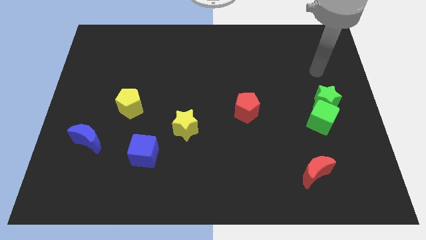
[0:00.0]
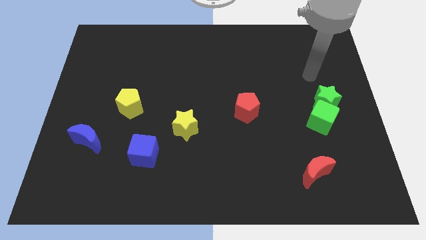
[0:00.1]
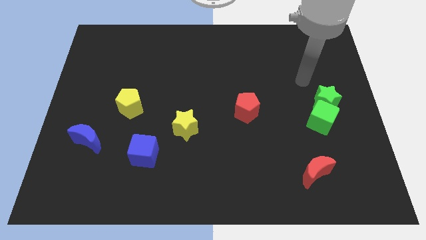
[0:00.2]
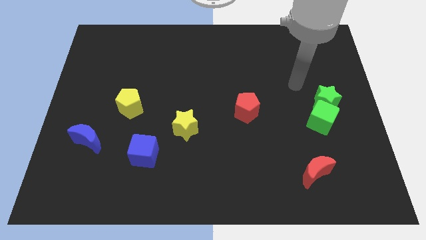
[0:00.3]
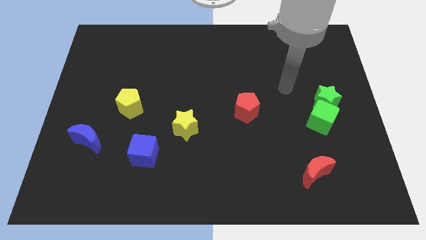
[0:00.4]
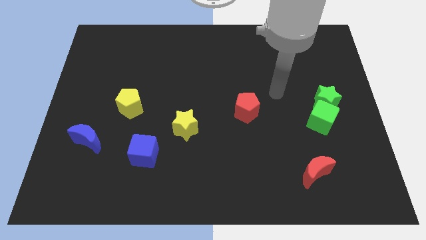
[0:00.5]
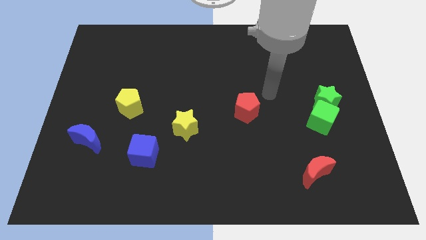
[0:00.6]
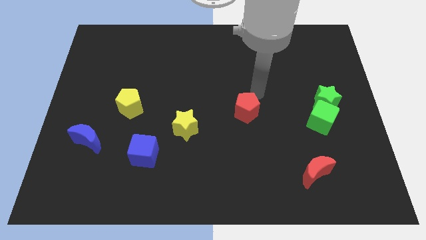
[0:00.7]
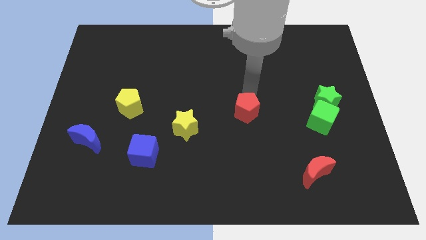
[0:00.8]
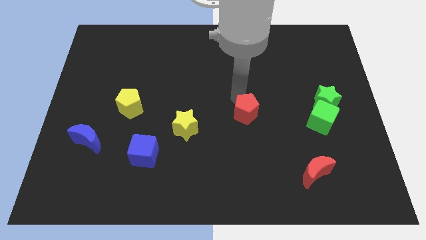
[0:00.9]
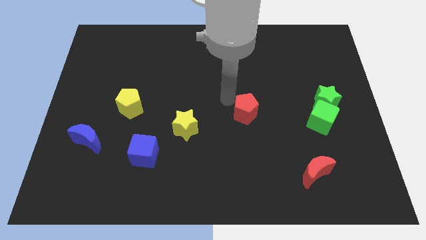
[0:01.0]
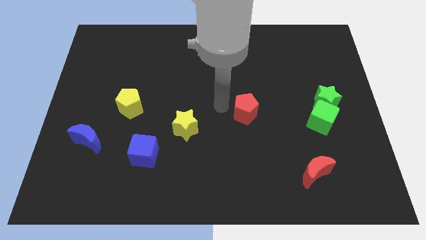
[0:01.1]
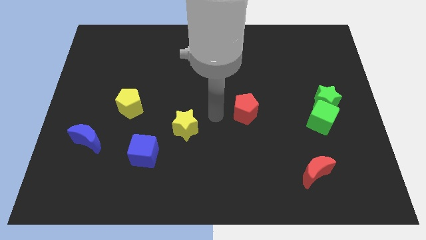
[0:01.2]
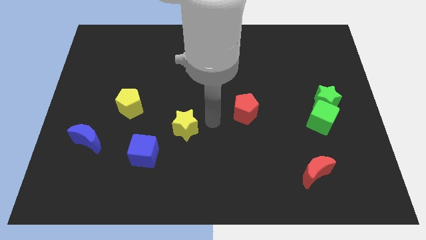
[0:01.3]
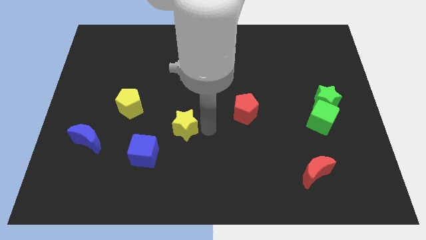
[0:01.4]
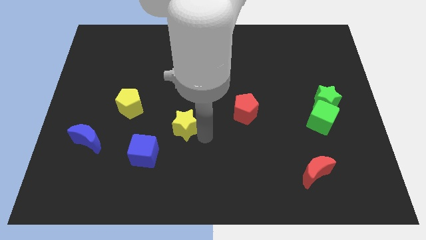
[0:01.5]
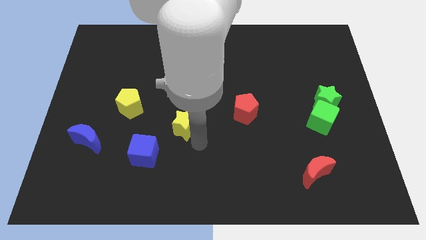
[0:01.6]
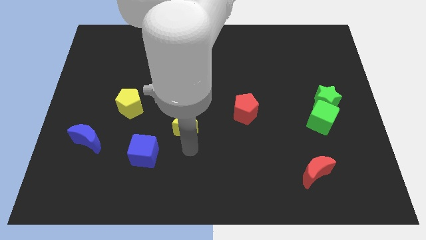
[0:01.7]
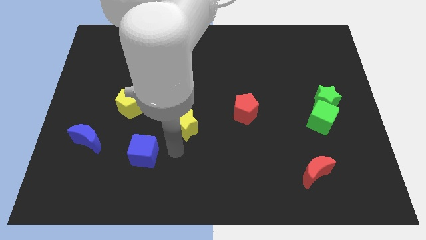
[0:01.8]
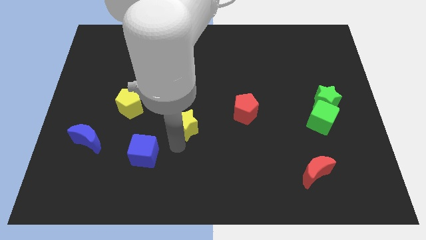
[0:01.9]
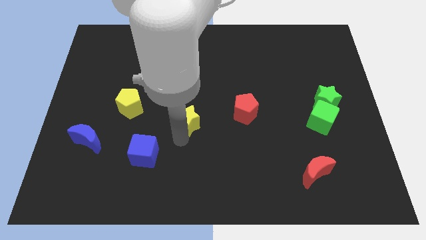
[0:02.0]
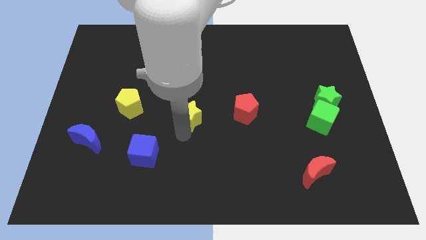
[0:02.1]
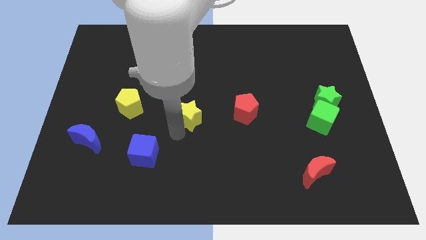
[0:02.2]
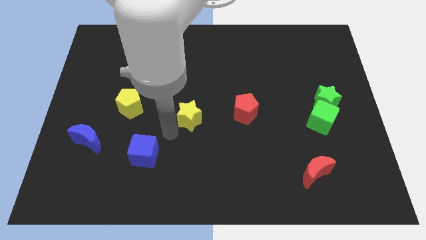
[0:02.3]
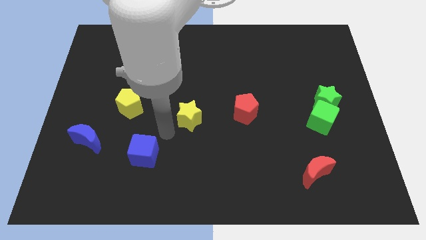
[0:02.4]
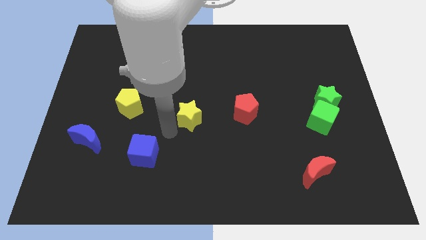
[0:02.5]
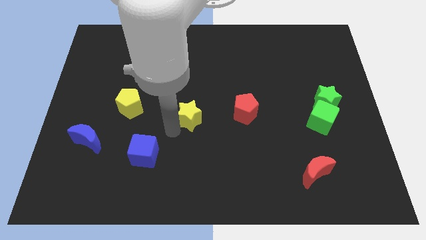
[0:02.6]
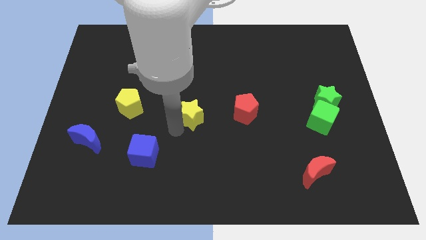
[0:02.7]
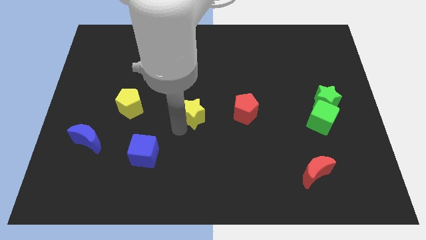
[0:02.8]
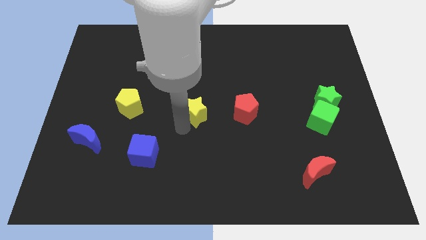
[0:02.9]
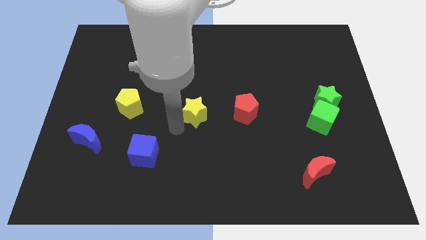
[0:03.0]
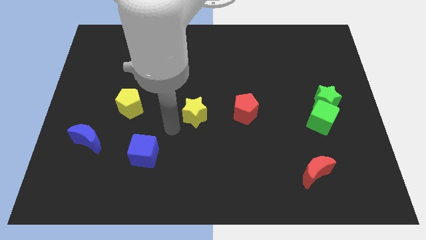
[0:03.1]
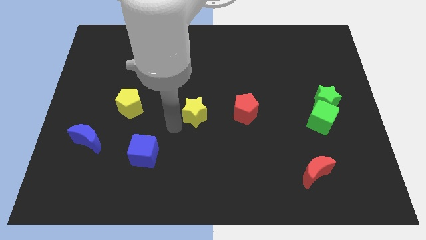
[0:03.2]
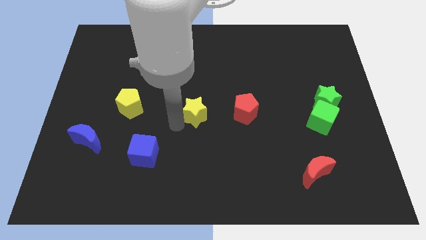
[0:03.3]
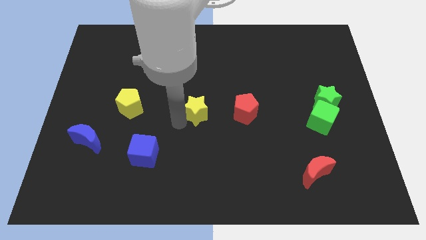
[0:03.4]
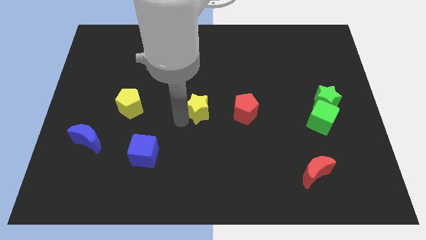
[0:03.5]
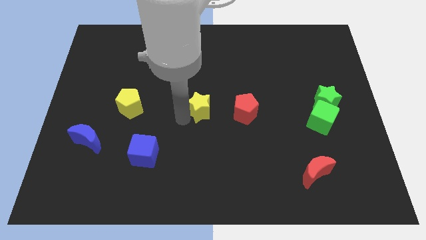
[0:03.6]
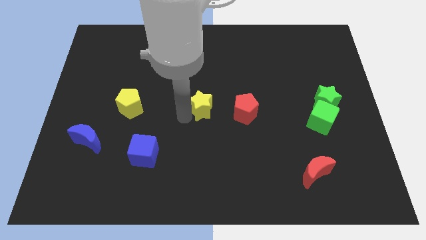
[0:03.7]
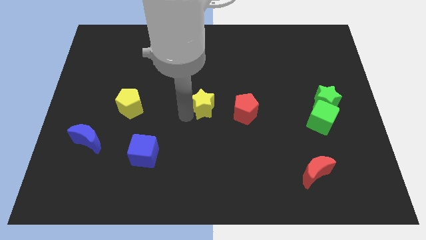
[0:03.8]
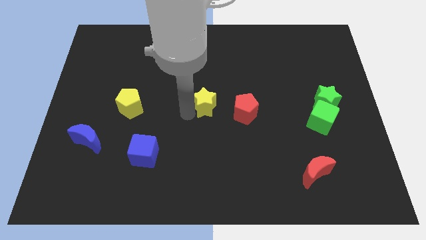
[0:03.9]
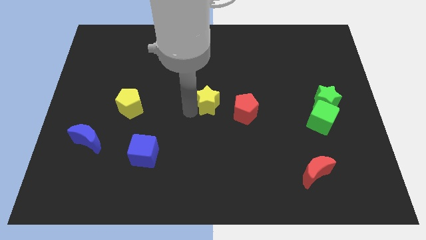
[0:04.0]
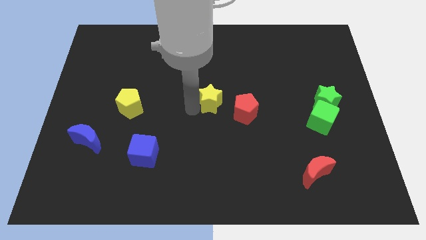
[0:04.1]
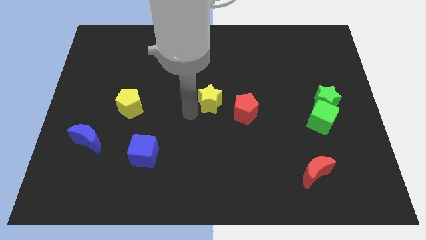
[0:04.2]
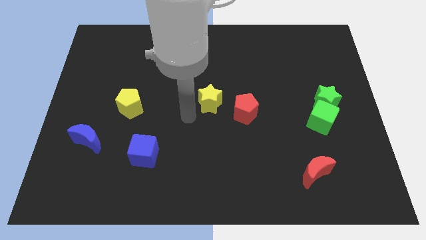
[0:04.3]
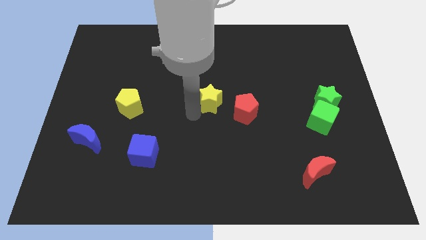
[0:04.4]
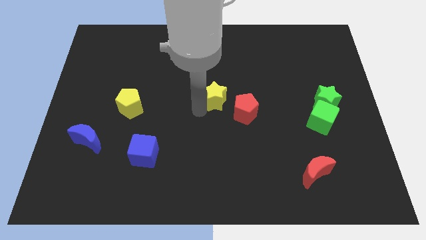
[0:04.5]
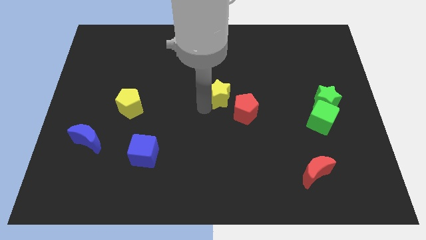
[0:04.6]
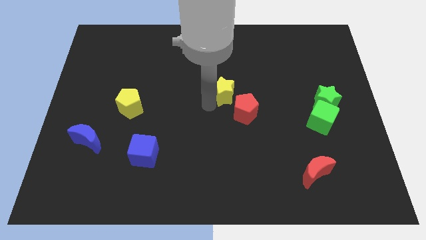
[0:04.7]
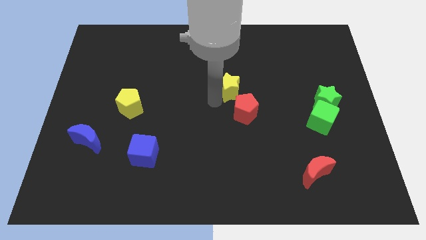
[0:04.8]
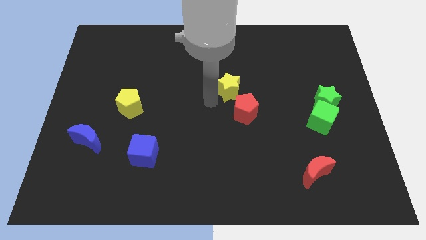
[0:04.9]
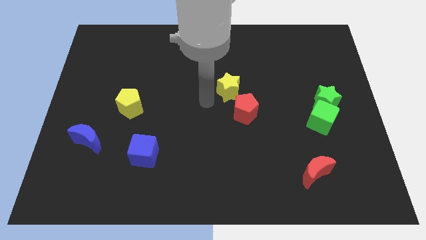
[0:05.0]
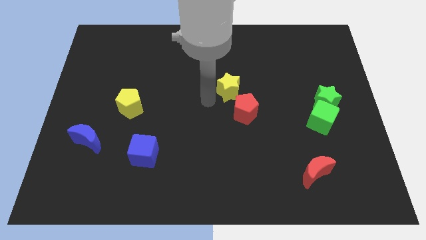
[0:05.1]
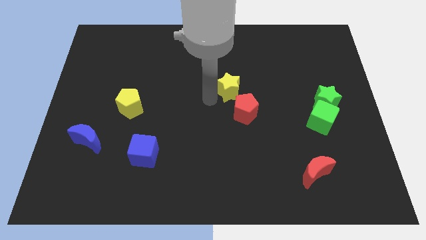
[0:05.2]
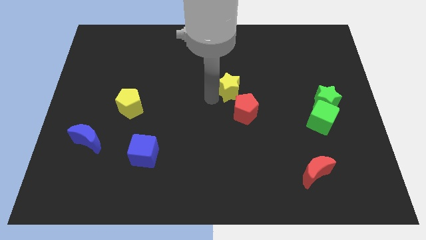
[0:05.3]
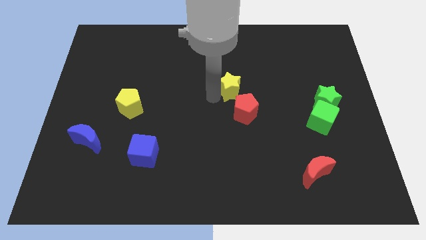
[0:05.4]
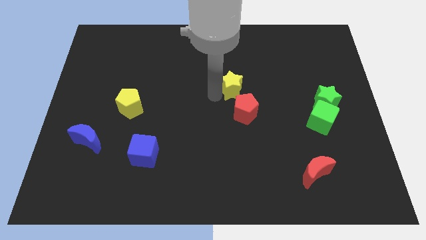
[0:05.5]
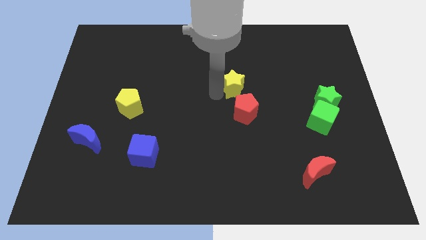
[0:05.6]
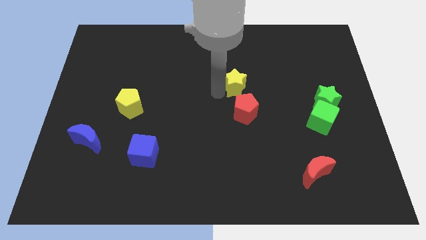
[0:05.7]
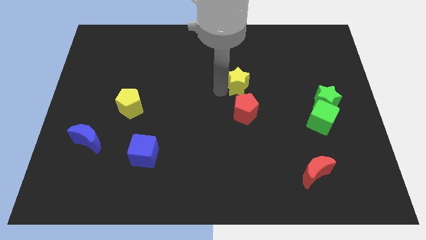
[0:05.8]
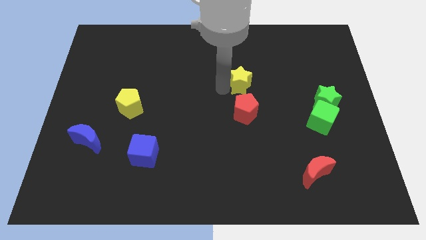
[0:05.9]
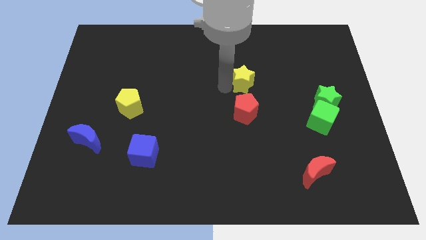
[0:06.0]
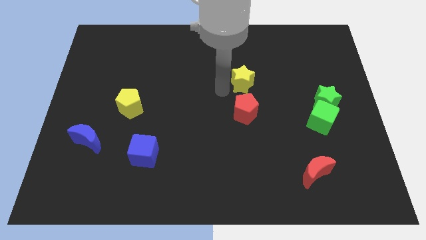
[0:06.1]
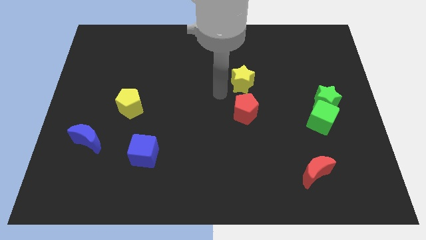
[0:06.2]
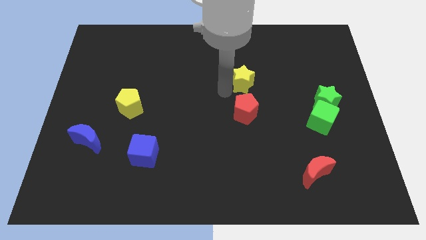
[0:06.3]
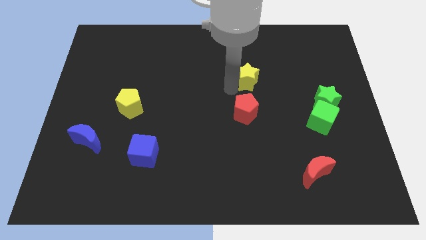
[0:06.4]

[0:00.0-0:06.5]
slide the yellow star upwards and to the right diagonally

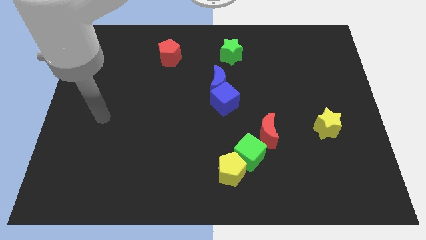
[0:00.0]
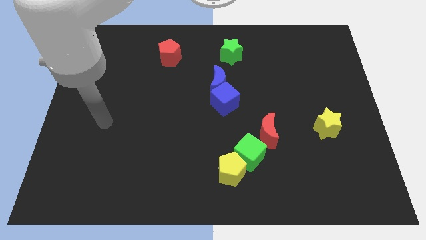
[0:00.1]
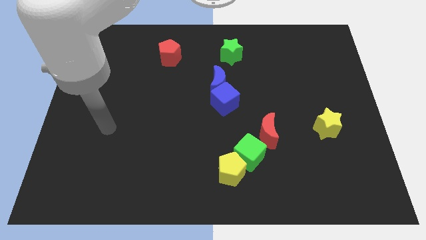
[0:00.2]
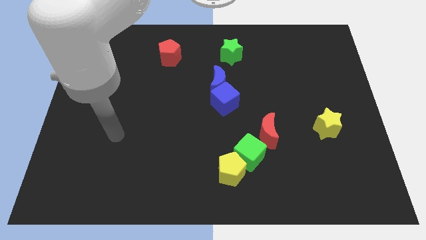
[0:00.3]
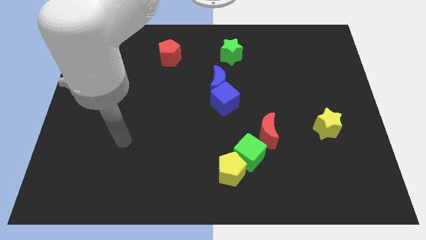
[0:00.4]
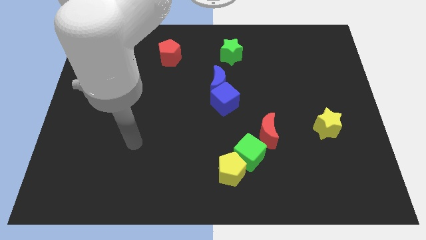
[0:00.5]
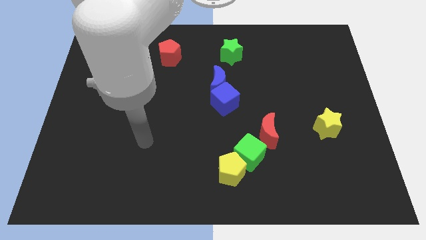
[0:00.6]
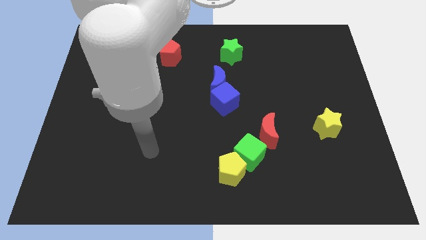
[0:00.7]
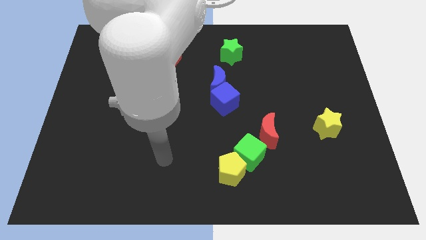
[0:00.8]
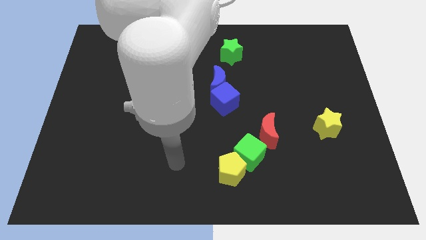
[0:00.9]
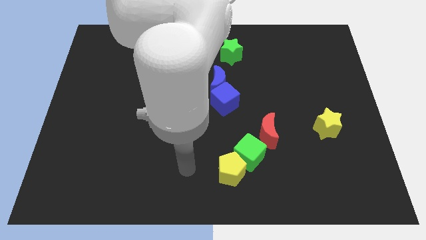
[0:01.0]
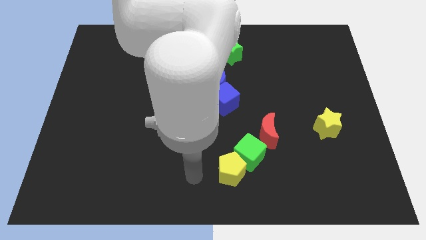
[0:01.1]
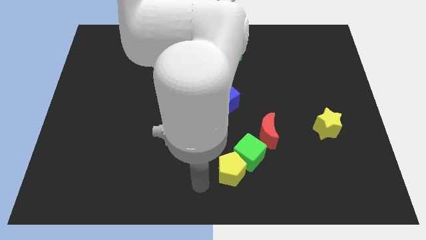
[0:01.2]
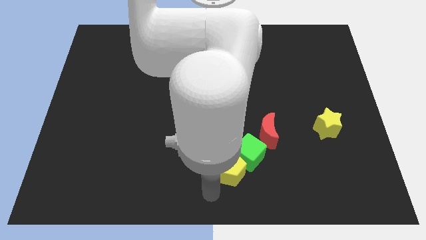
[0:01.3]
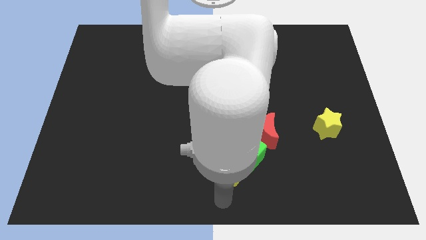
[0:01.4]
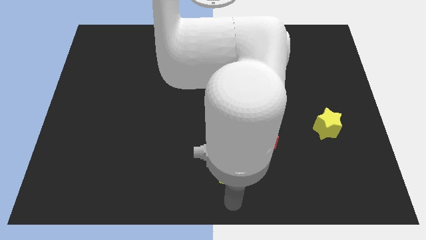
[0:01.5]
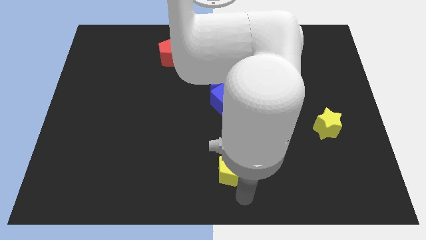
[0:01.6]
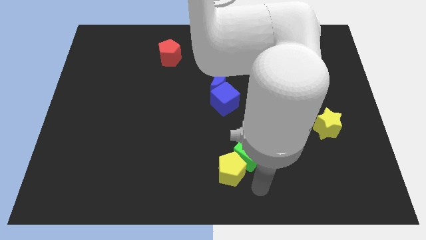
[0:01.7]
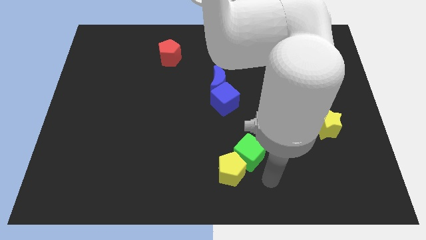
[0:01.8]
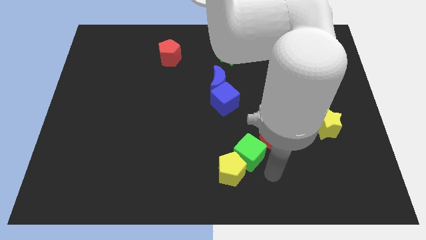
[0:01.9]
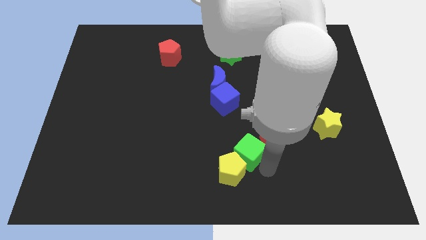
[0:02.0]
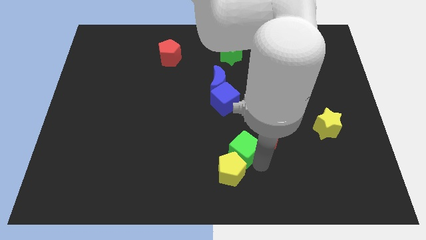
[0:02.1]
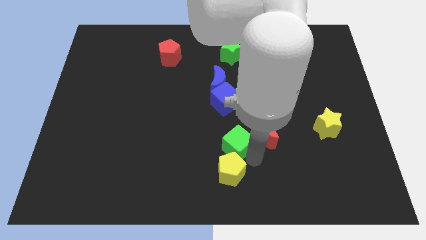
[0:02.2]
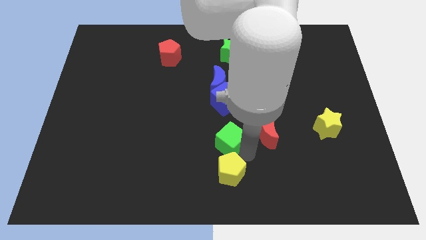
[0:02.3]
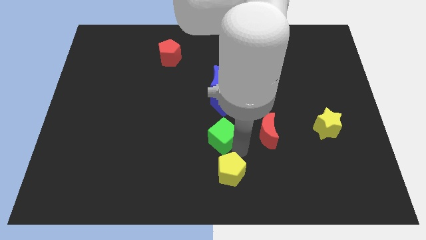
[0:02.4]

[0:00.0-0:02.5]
slightly move the green cube diagonally up and left
